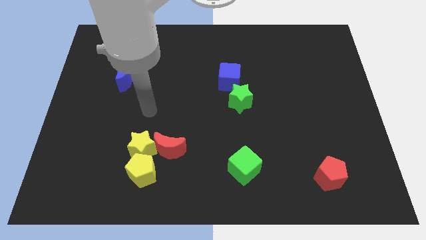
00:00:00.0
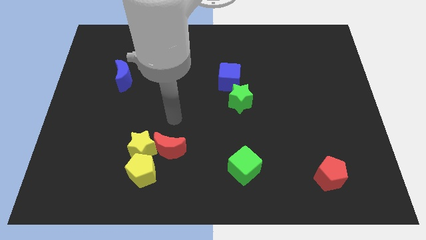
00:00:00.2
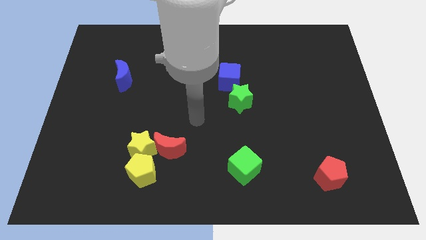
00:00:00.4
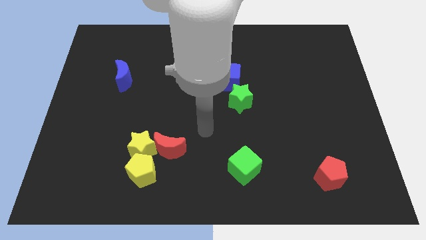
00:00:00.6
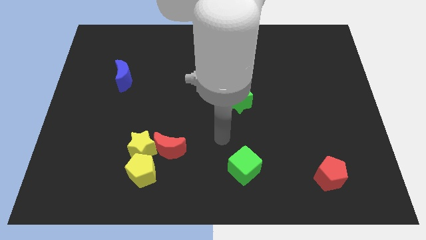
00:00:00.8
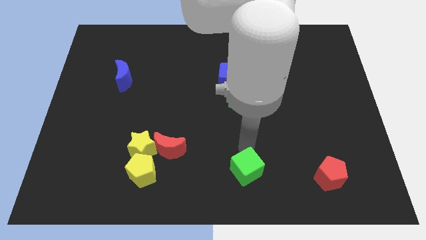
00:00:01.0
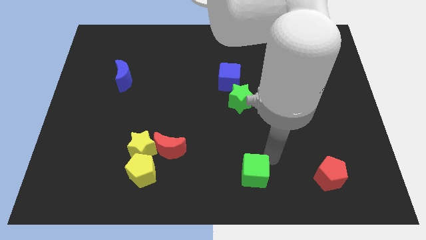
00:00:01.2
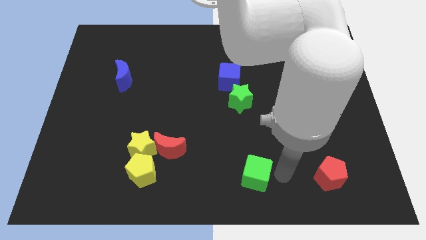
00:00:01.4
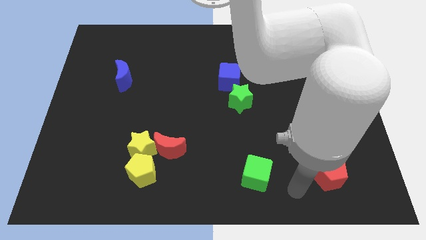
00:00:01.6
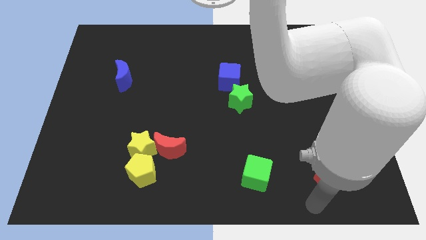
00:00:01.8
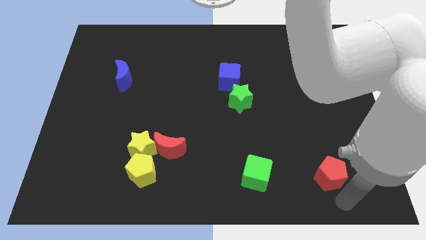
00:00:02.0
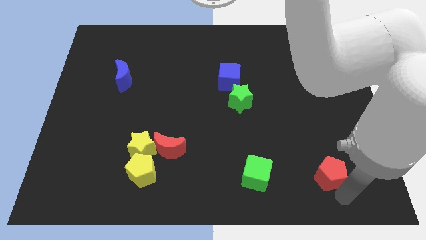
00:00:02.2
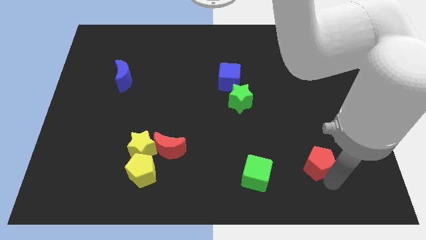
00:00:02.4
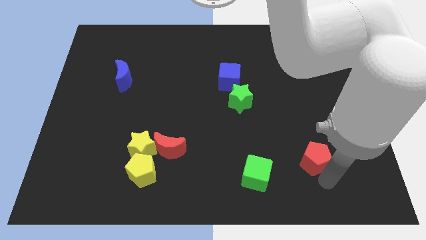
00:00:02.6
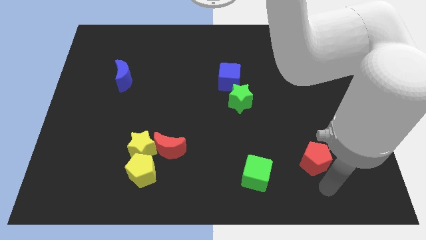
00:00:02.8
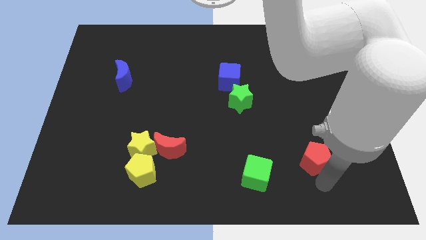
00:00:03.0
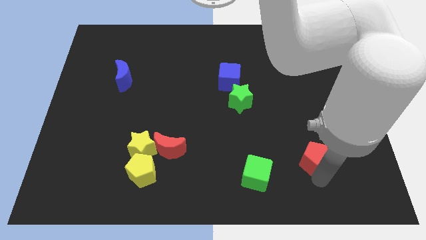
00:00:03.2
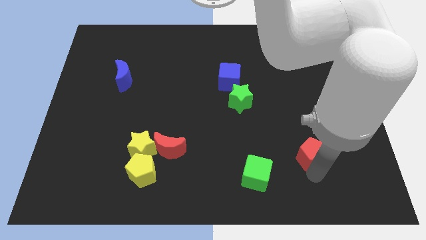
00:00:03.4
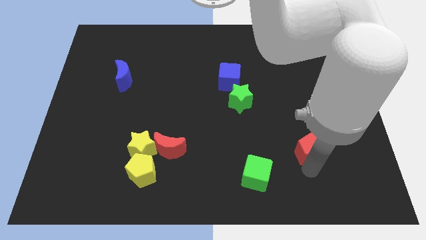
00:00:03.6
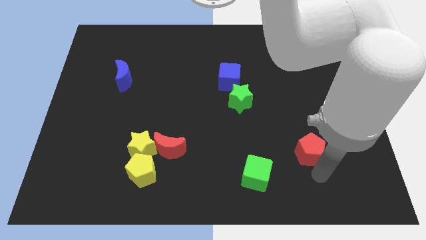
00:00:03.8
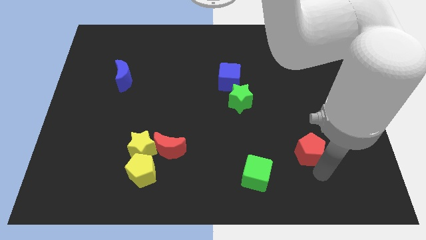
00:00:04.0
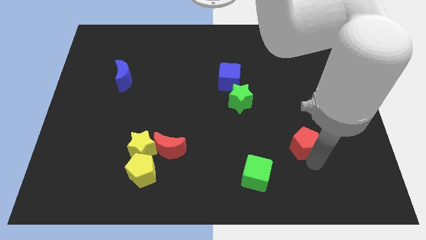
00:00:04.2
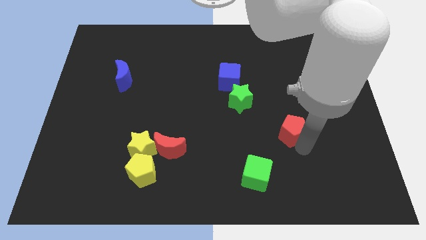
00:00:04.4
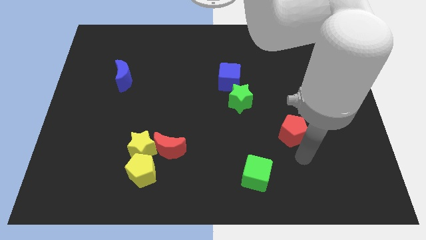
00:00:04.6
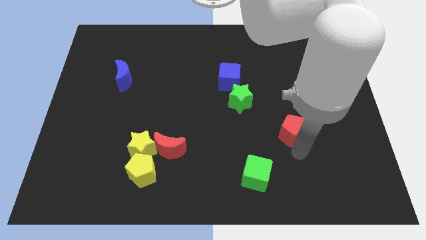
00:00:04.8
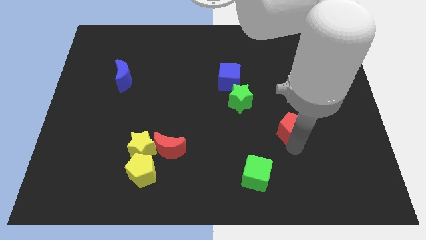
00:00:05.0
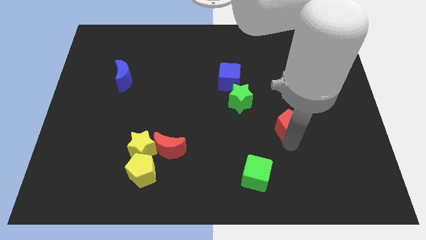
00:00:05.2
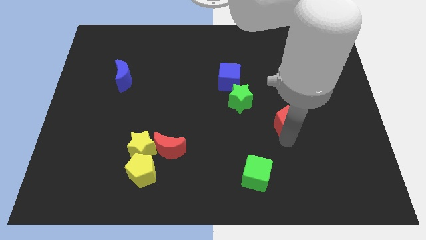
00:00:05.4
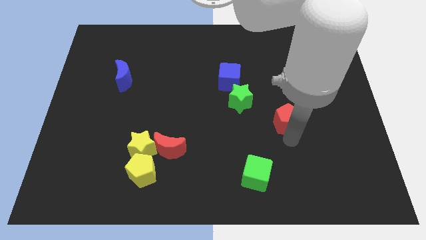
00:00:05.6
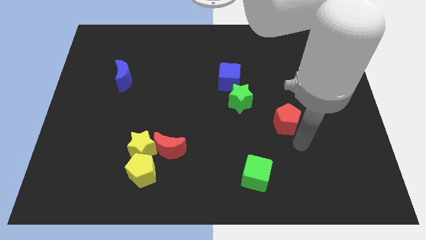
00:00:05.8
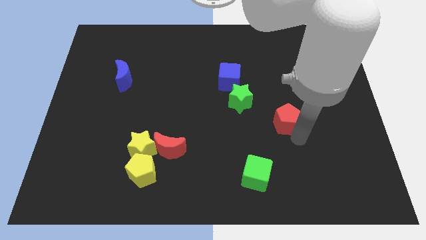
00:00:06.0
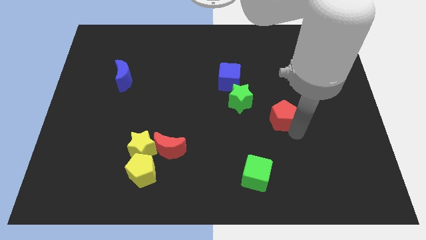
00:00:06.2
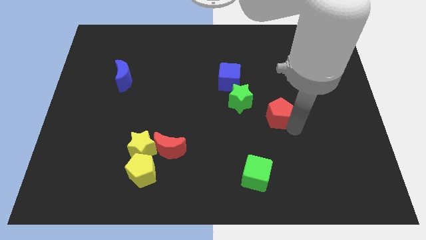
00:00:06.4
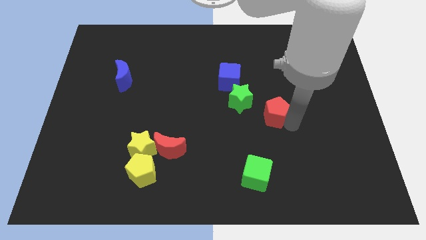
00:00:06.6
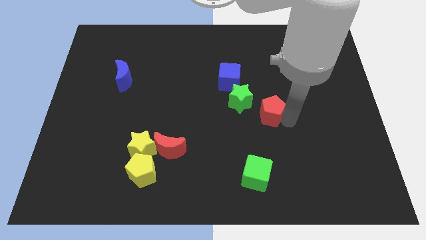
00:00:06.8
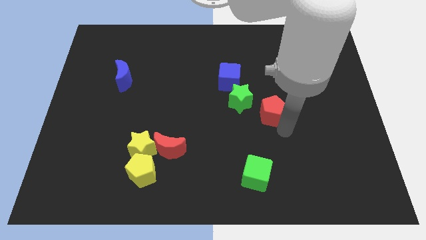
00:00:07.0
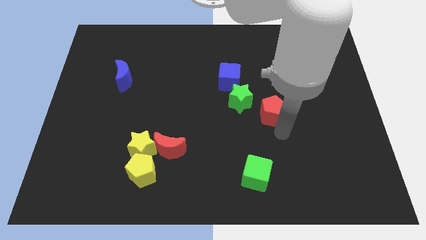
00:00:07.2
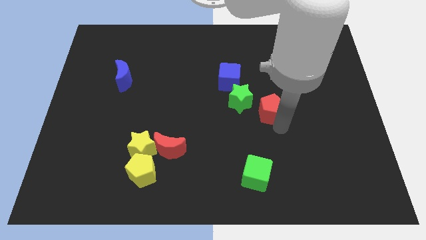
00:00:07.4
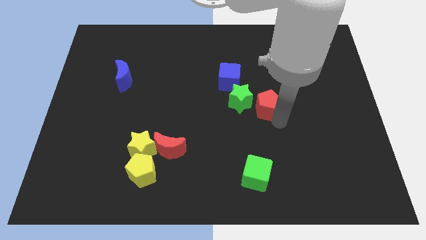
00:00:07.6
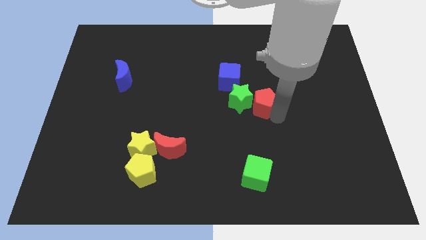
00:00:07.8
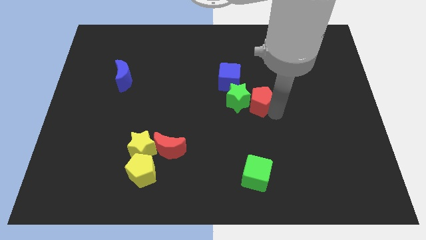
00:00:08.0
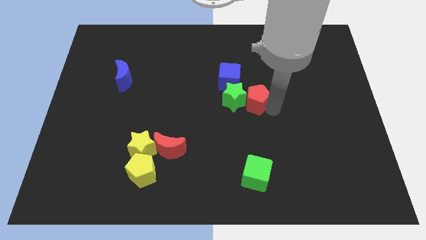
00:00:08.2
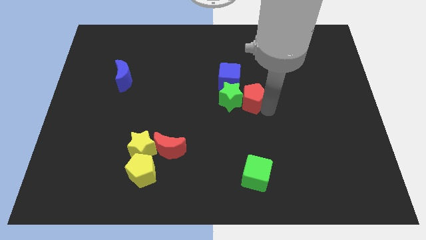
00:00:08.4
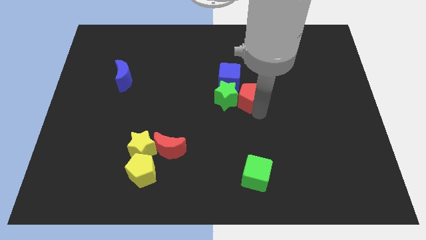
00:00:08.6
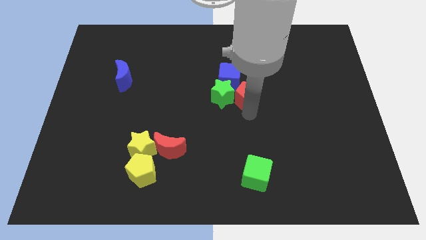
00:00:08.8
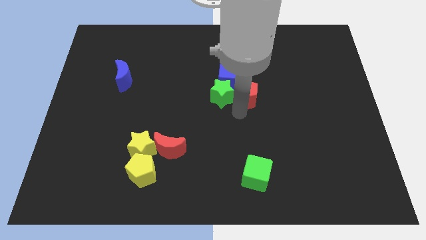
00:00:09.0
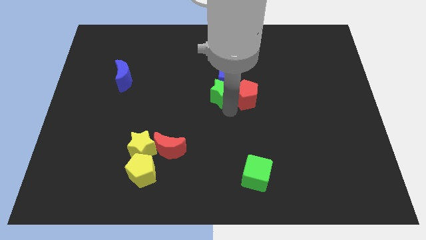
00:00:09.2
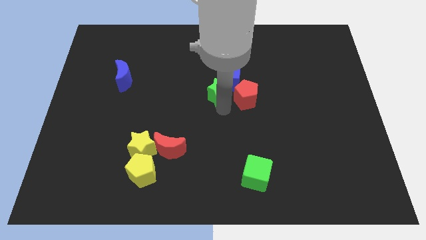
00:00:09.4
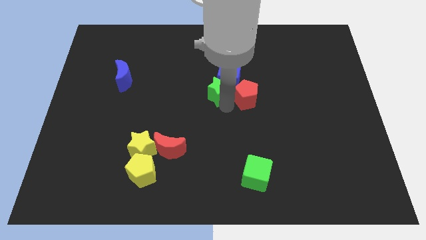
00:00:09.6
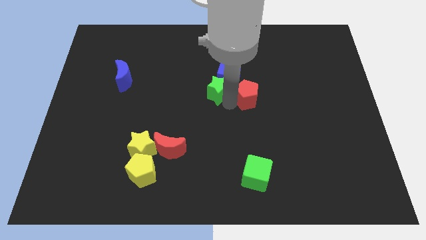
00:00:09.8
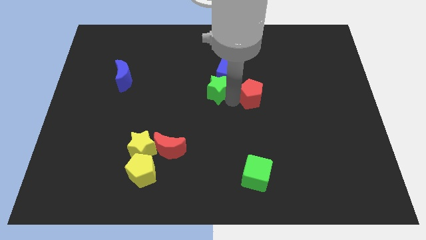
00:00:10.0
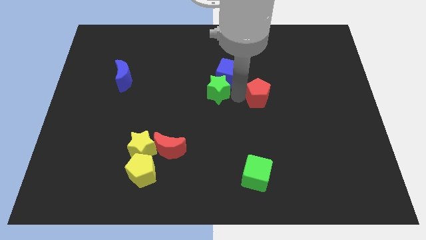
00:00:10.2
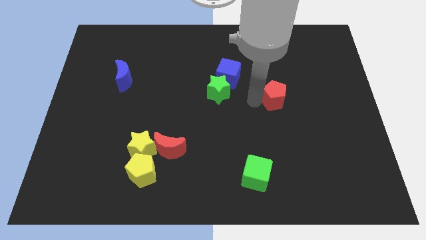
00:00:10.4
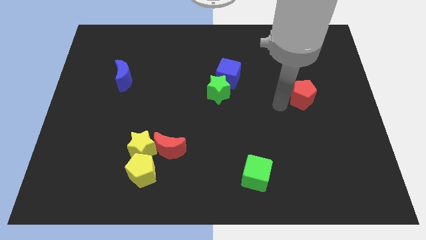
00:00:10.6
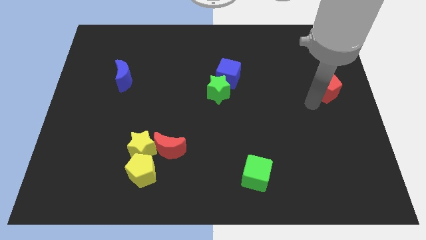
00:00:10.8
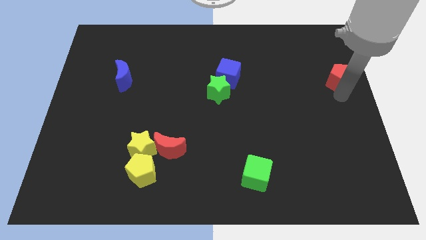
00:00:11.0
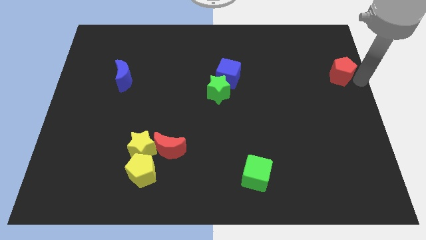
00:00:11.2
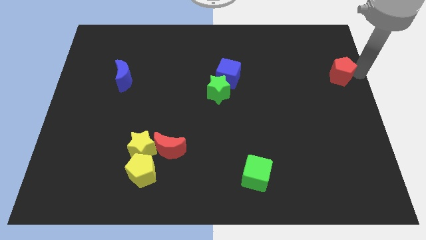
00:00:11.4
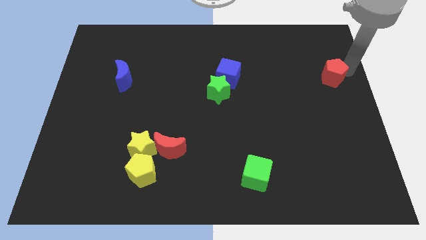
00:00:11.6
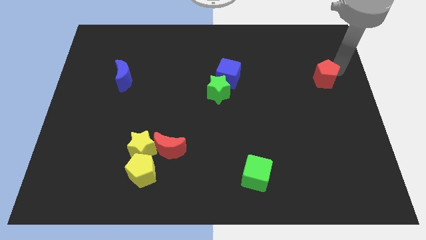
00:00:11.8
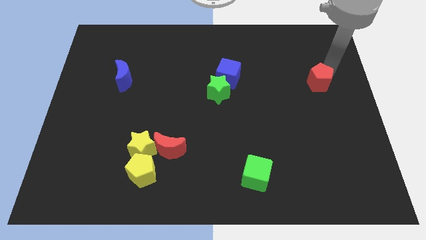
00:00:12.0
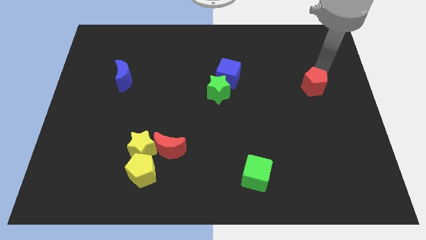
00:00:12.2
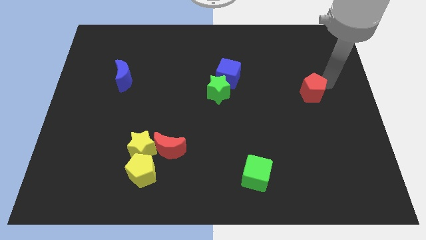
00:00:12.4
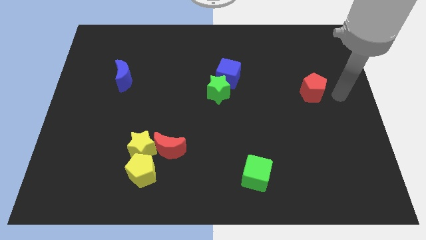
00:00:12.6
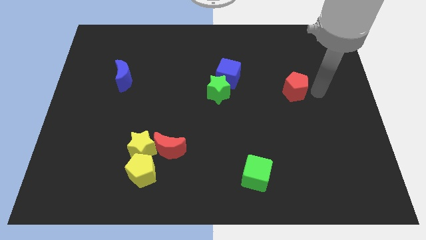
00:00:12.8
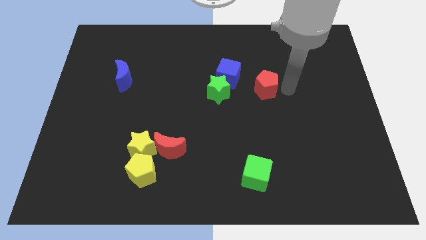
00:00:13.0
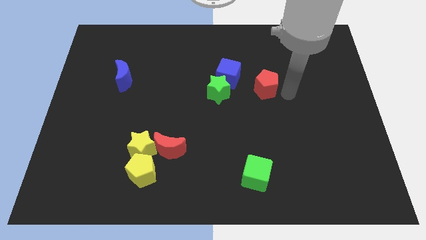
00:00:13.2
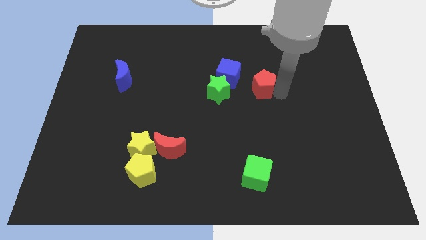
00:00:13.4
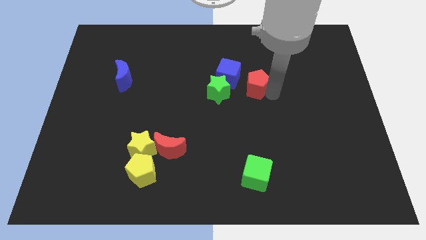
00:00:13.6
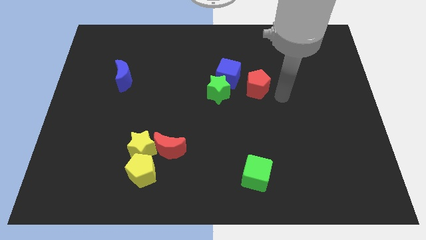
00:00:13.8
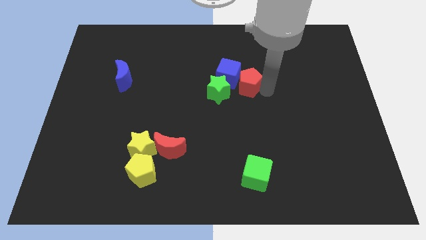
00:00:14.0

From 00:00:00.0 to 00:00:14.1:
move the red pentagon to the blue cube

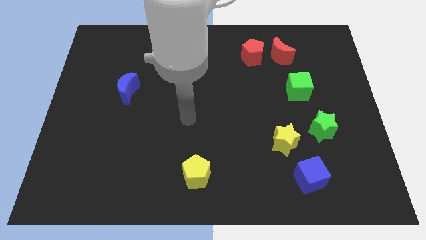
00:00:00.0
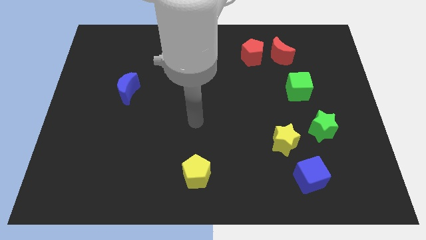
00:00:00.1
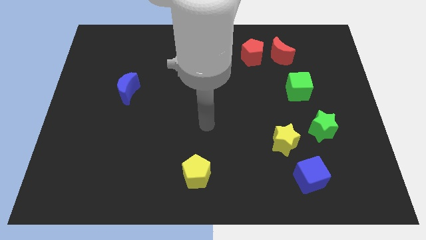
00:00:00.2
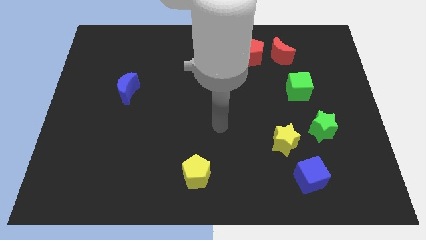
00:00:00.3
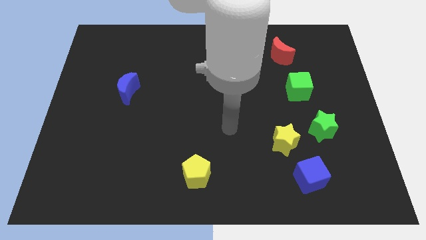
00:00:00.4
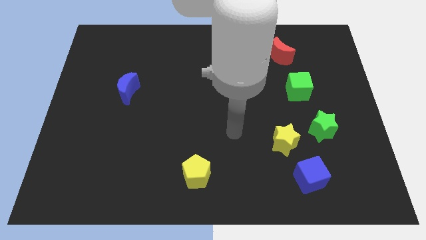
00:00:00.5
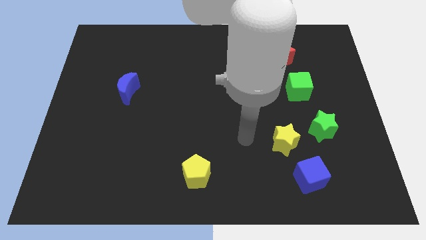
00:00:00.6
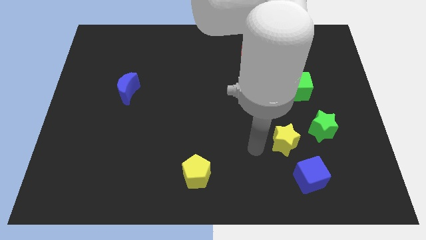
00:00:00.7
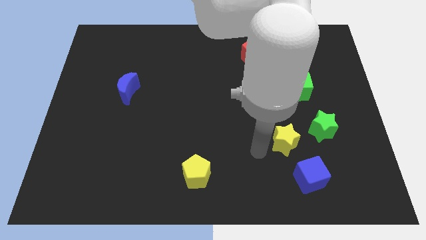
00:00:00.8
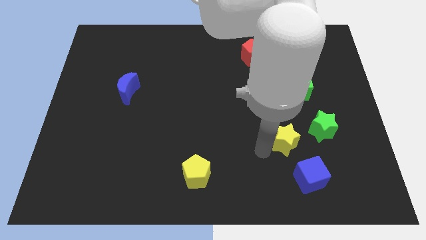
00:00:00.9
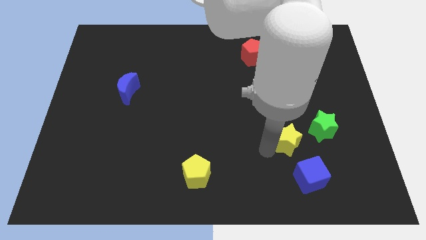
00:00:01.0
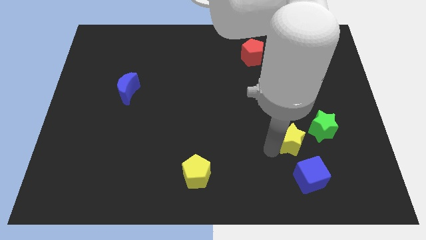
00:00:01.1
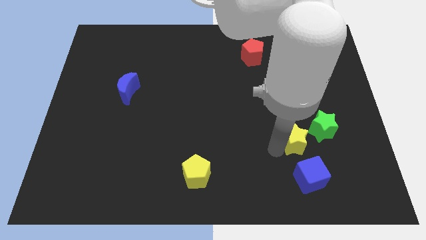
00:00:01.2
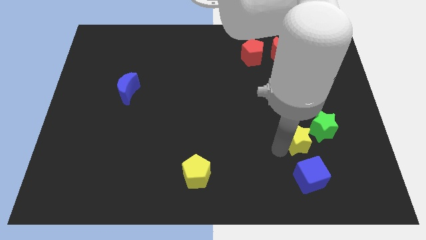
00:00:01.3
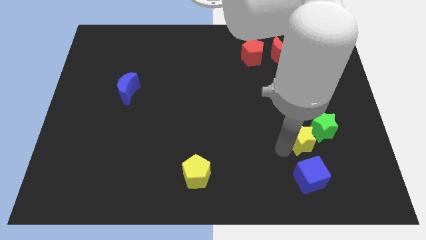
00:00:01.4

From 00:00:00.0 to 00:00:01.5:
put the yellow star close to the green star
